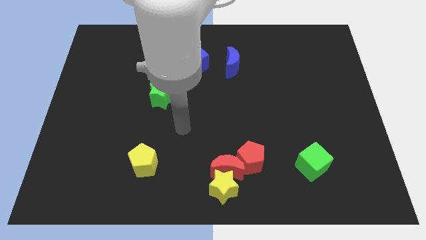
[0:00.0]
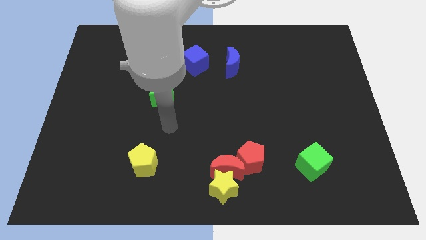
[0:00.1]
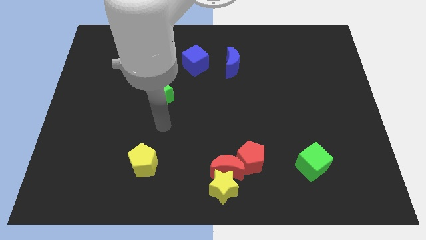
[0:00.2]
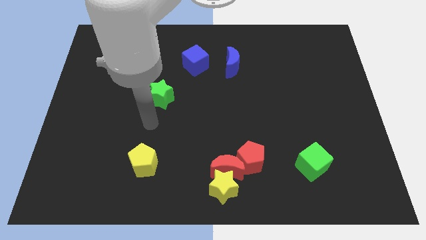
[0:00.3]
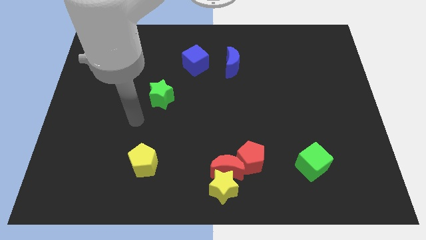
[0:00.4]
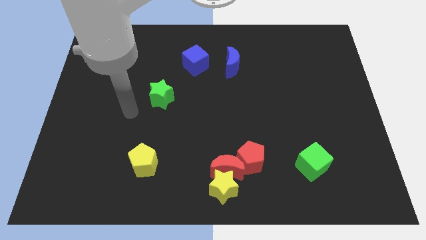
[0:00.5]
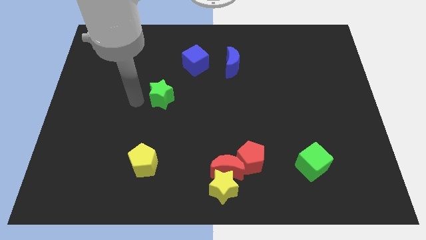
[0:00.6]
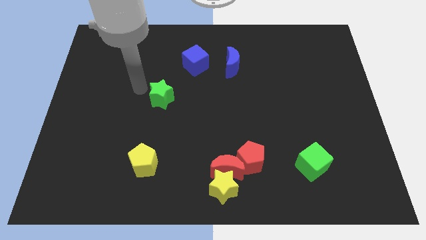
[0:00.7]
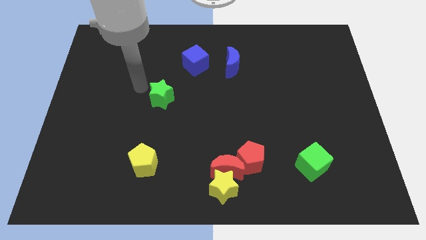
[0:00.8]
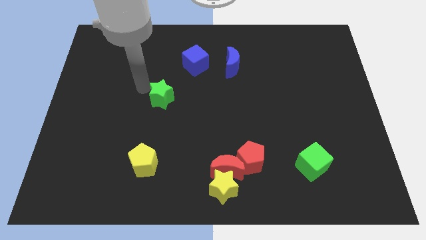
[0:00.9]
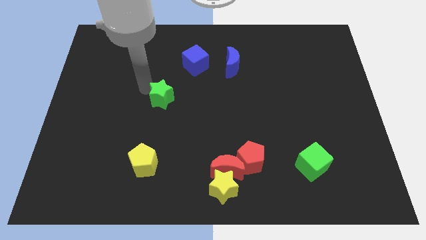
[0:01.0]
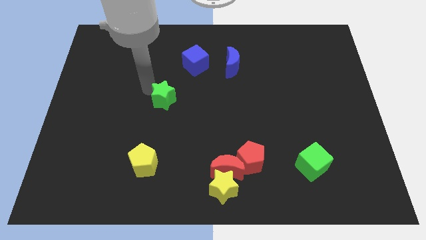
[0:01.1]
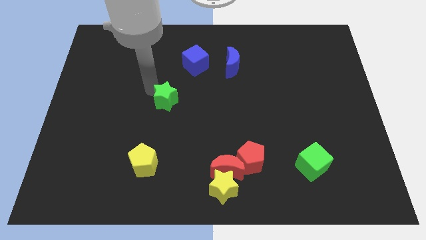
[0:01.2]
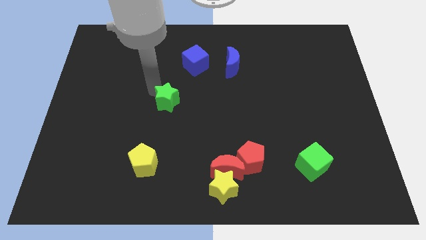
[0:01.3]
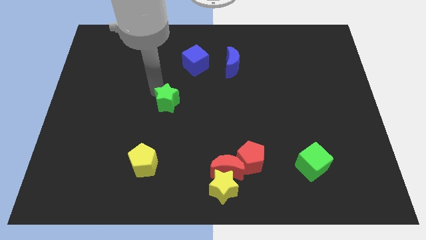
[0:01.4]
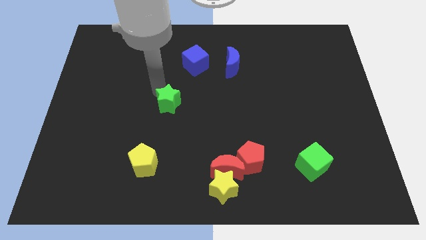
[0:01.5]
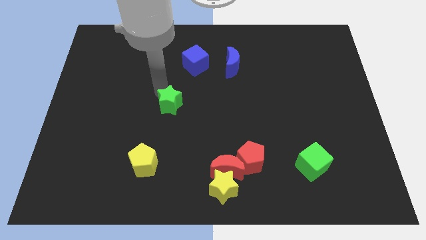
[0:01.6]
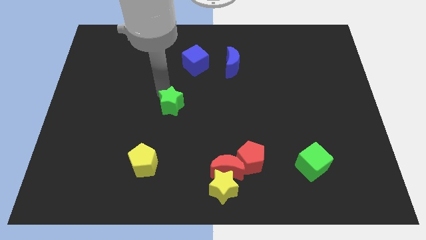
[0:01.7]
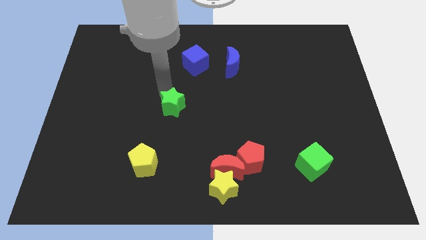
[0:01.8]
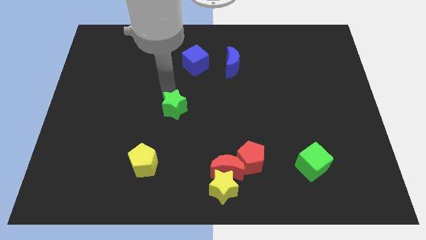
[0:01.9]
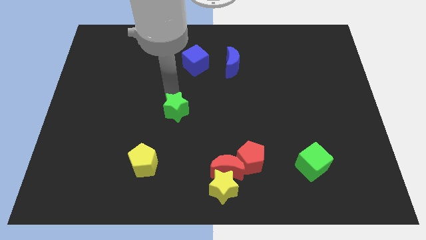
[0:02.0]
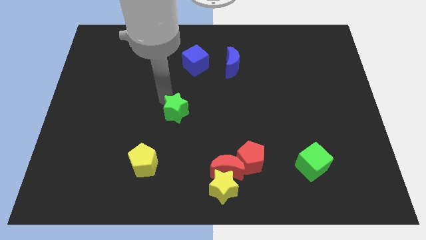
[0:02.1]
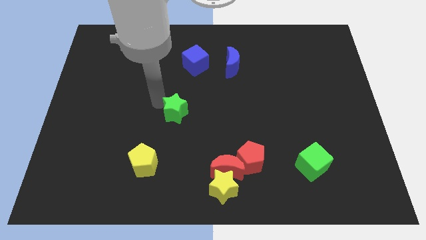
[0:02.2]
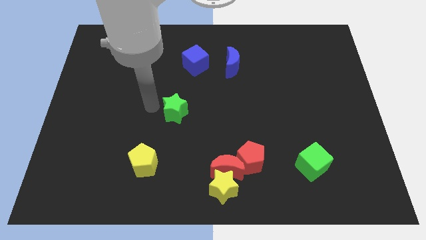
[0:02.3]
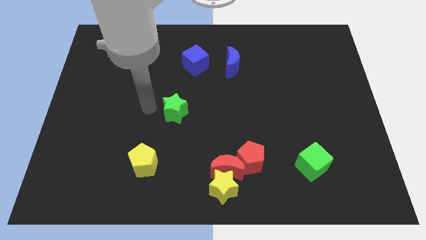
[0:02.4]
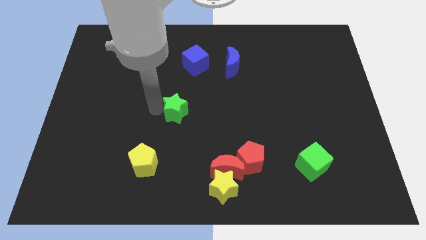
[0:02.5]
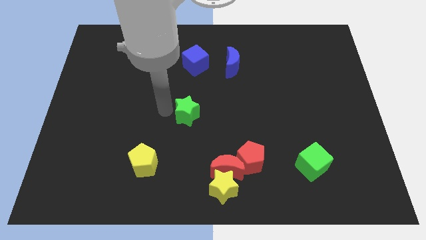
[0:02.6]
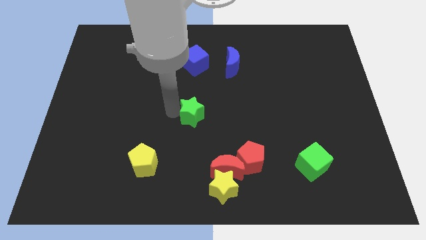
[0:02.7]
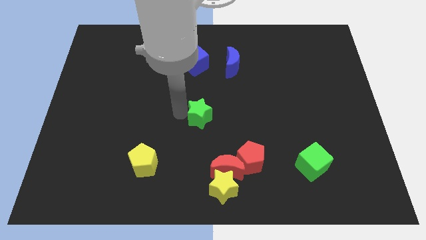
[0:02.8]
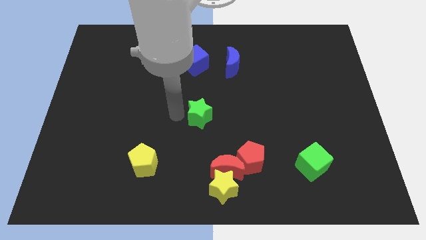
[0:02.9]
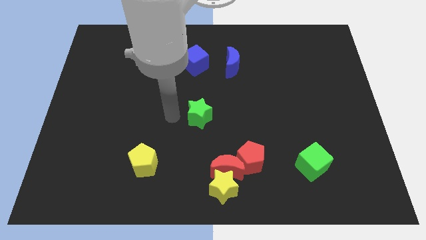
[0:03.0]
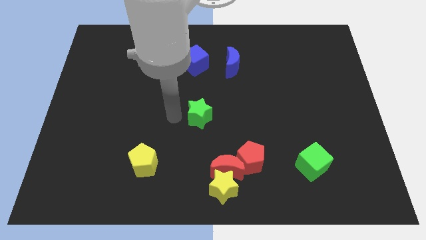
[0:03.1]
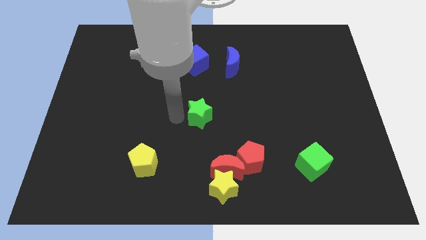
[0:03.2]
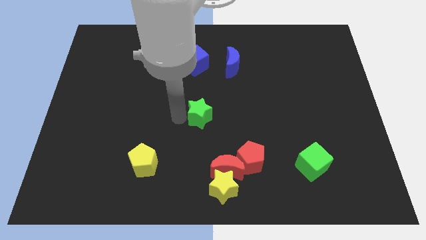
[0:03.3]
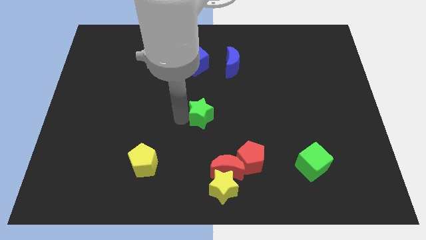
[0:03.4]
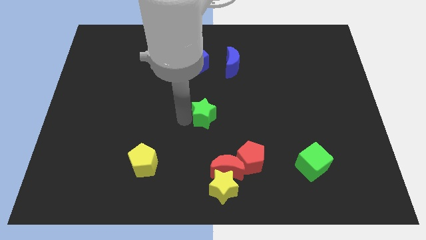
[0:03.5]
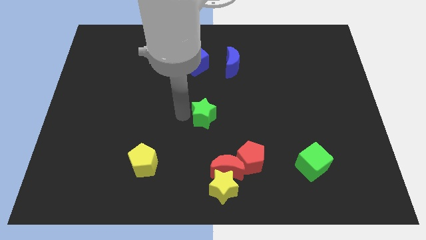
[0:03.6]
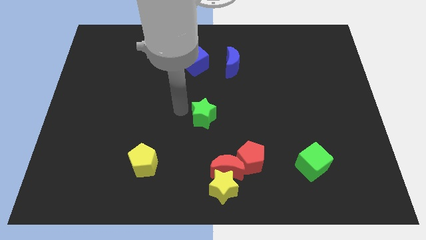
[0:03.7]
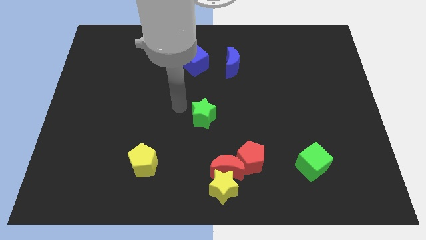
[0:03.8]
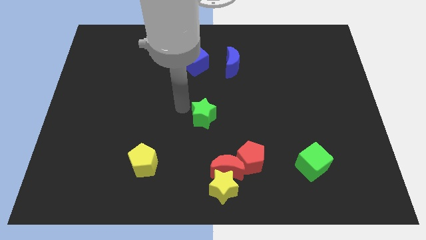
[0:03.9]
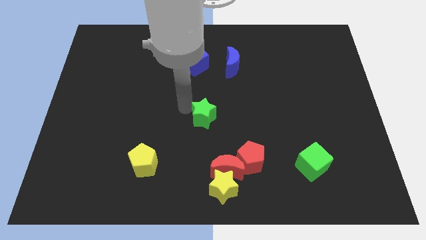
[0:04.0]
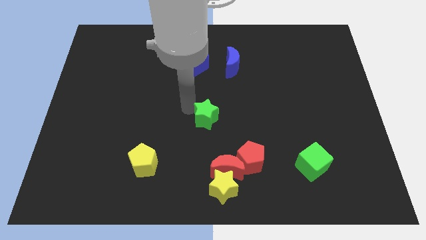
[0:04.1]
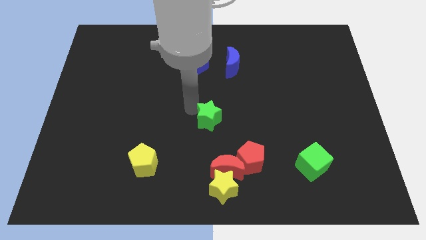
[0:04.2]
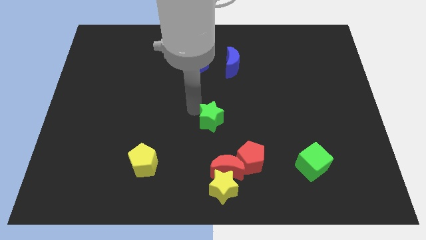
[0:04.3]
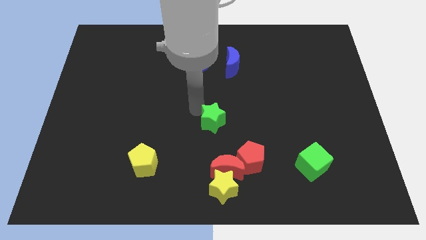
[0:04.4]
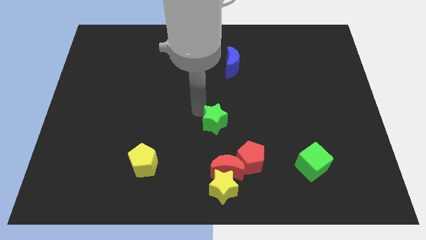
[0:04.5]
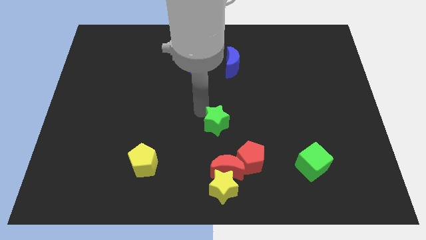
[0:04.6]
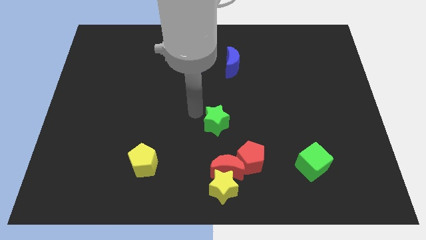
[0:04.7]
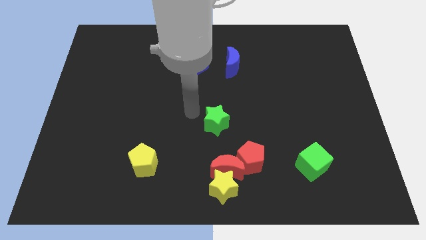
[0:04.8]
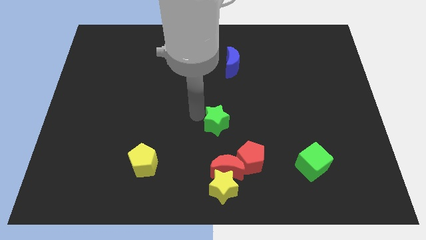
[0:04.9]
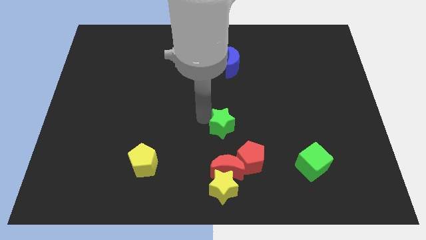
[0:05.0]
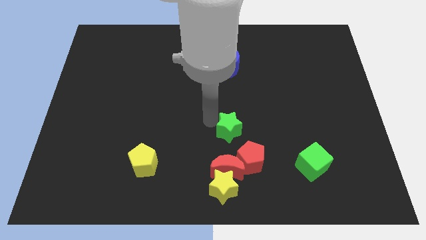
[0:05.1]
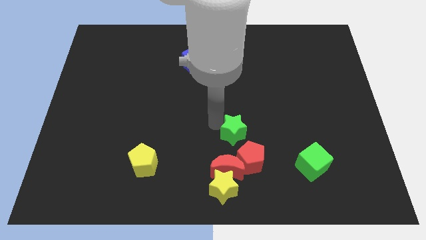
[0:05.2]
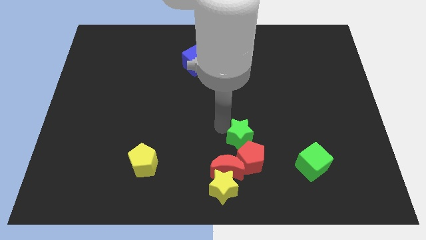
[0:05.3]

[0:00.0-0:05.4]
slide the green star diagonally down and right

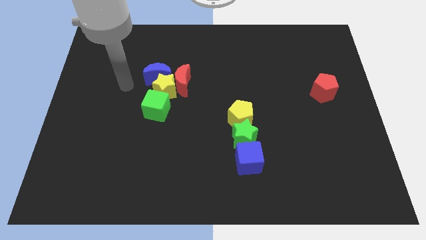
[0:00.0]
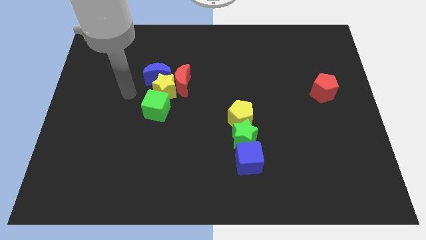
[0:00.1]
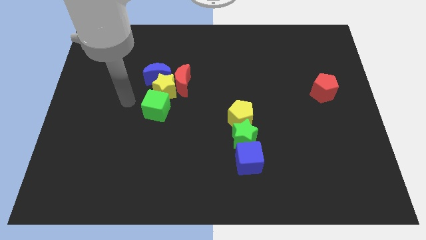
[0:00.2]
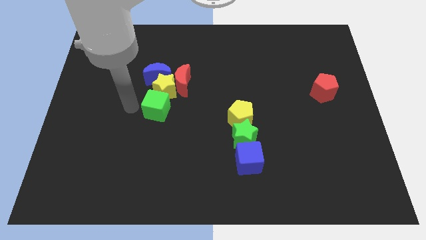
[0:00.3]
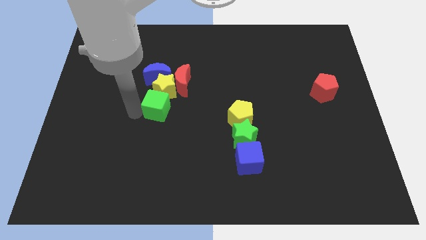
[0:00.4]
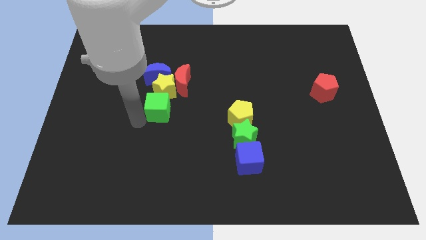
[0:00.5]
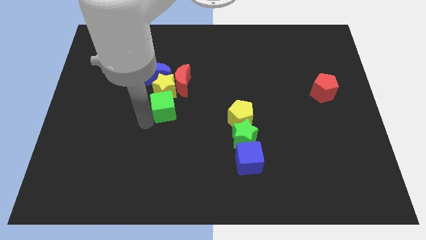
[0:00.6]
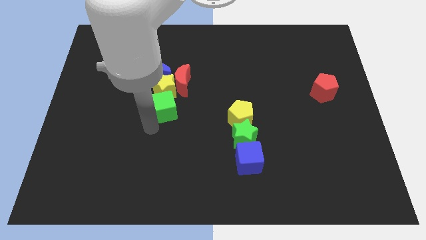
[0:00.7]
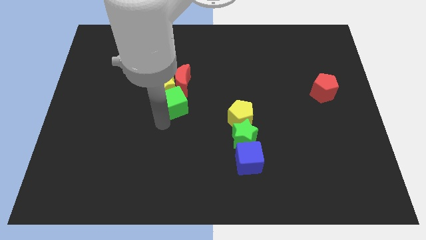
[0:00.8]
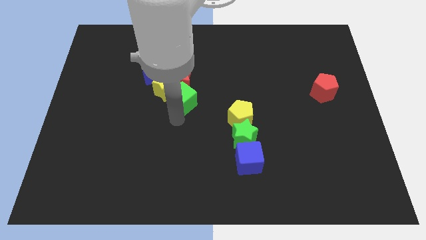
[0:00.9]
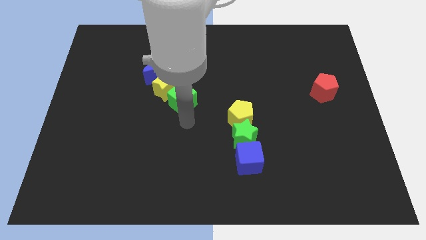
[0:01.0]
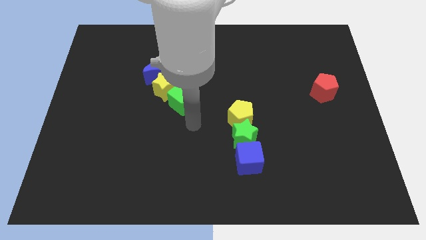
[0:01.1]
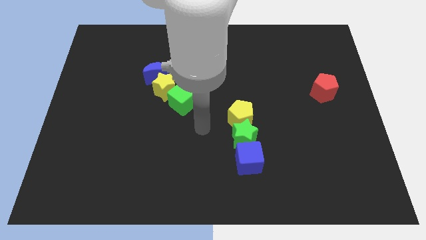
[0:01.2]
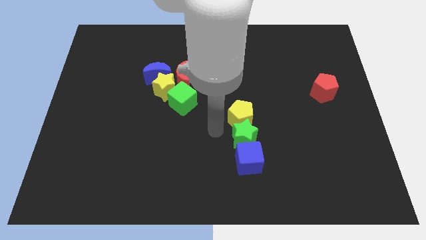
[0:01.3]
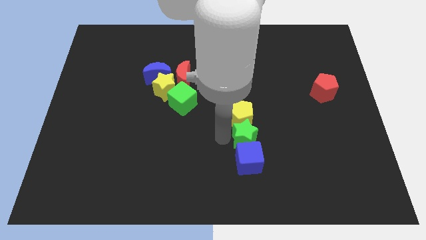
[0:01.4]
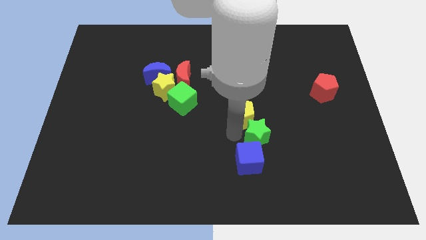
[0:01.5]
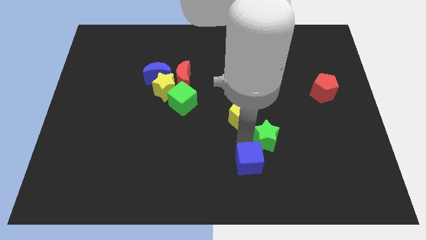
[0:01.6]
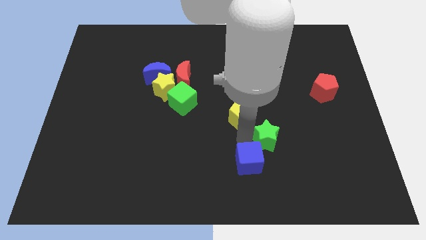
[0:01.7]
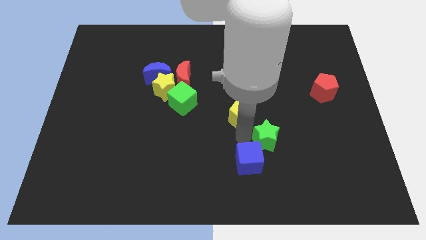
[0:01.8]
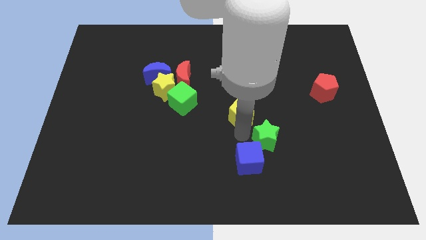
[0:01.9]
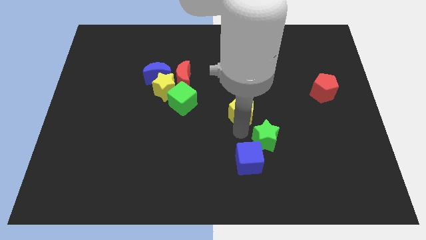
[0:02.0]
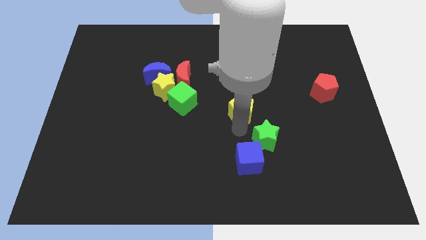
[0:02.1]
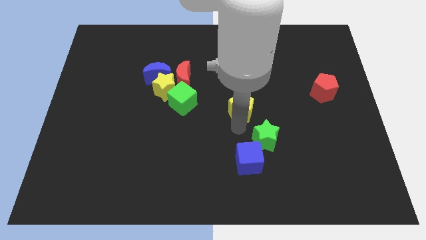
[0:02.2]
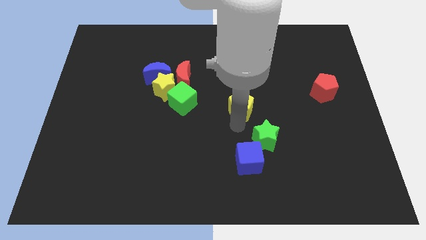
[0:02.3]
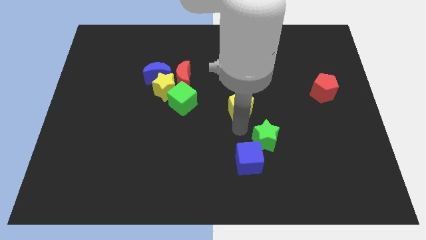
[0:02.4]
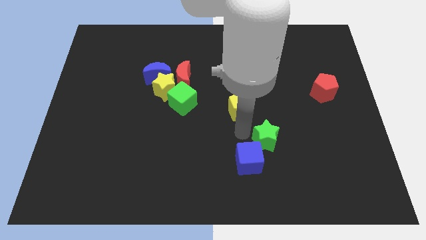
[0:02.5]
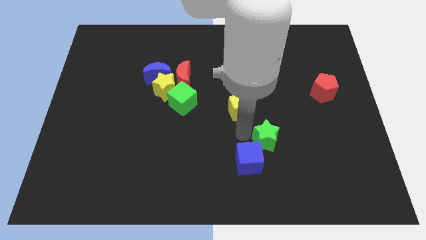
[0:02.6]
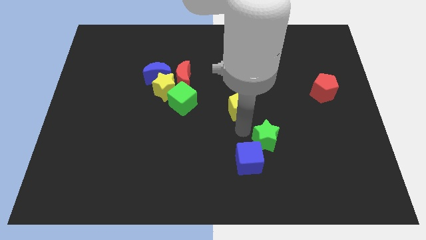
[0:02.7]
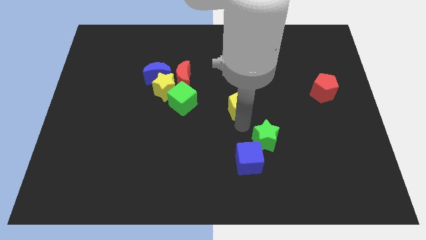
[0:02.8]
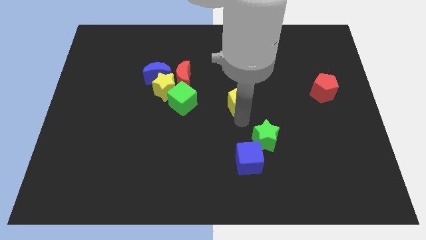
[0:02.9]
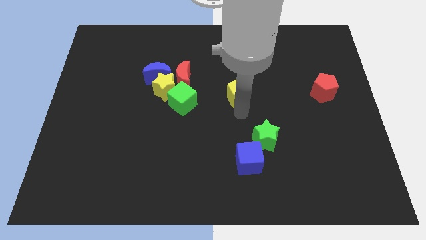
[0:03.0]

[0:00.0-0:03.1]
slide the yellow pentagon upwards a little
